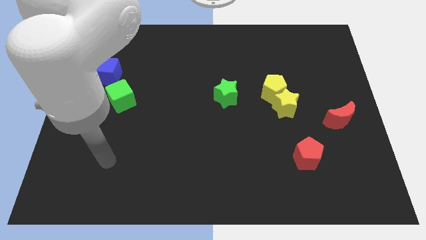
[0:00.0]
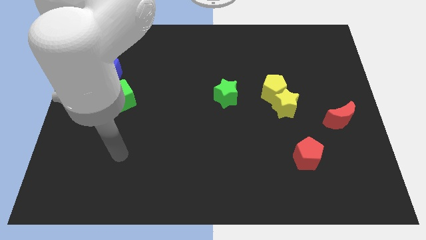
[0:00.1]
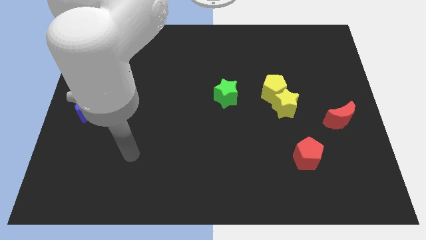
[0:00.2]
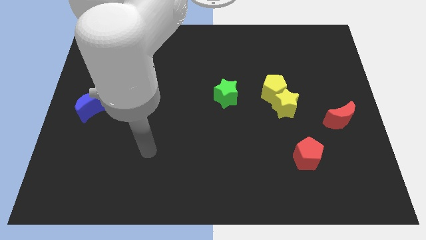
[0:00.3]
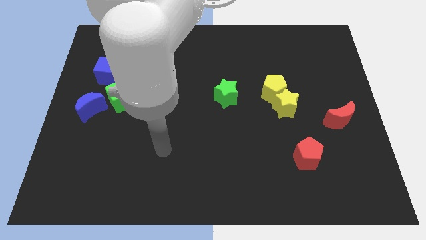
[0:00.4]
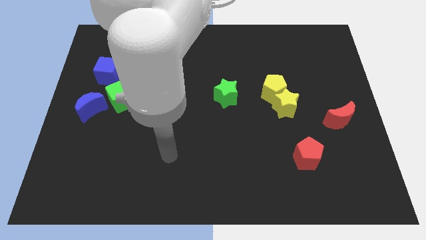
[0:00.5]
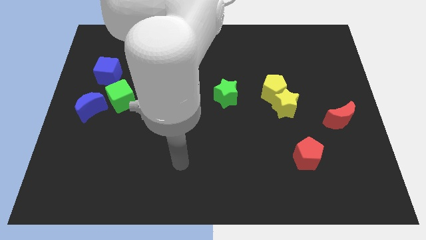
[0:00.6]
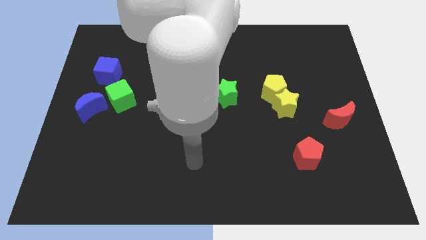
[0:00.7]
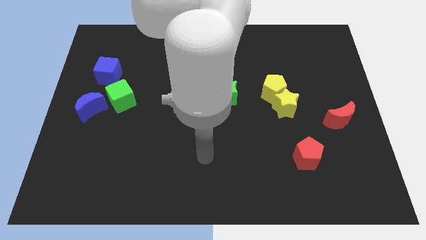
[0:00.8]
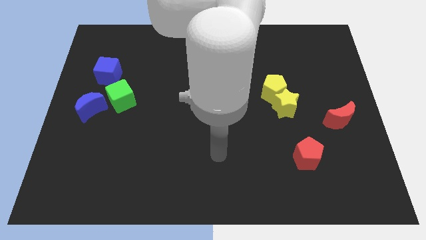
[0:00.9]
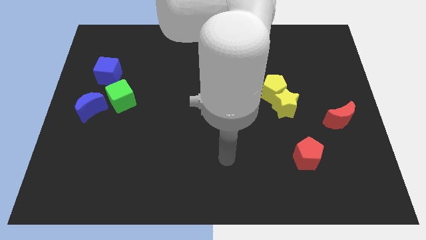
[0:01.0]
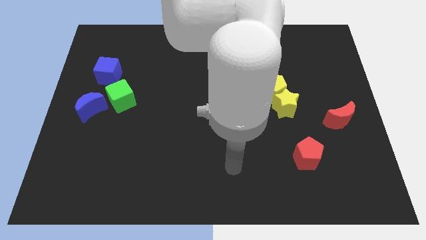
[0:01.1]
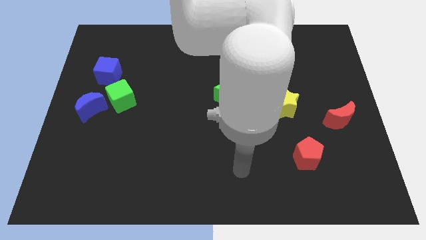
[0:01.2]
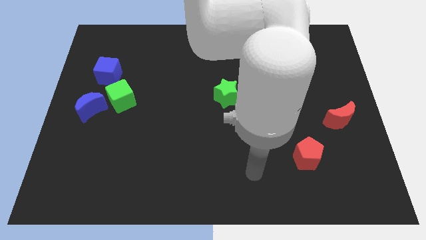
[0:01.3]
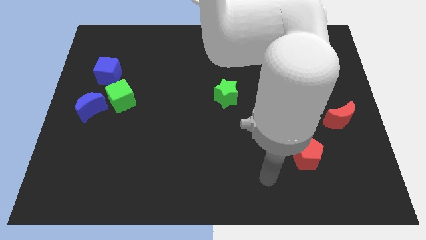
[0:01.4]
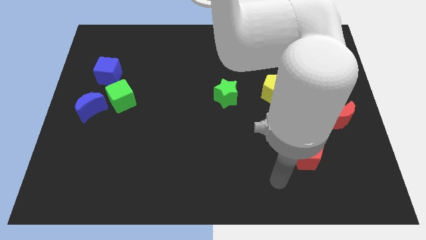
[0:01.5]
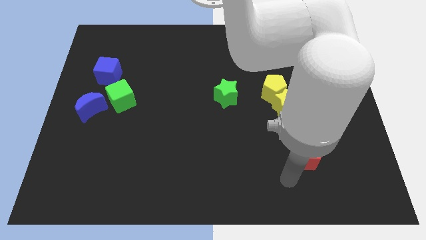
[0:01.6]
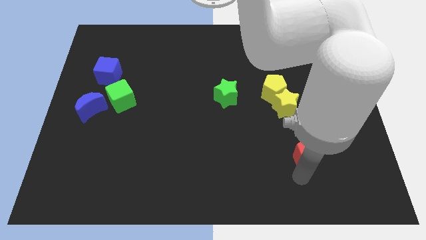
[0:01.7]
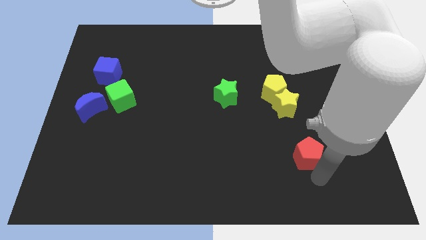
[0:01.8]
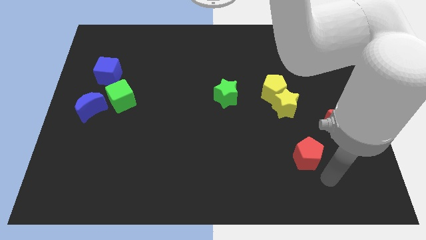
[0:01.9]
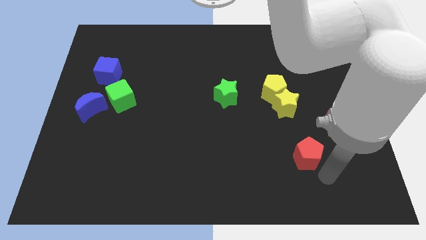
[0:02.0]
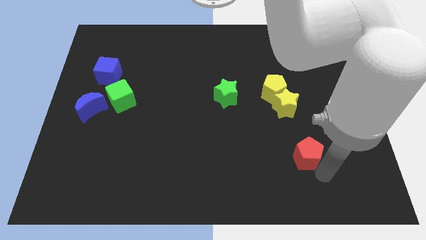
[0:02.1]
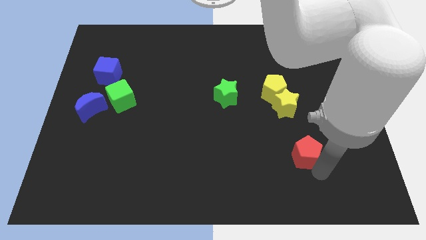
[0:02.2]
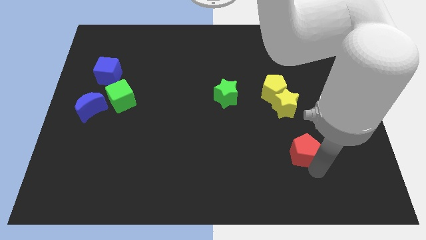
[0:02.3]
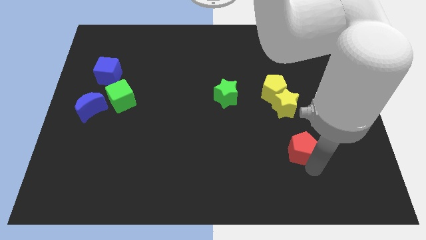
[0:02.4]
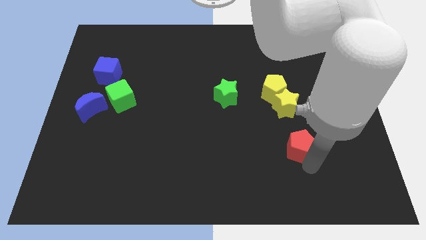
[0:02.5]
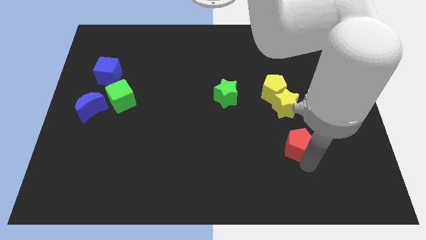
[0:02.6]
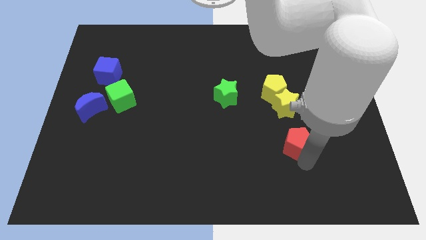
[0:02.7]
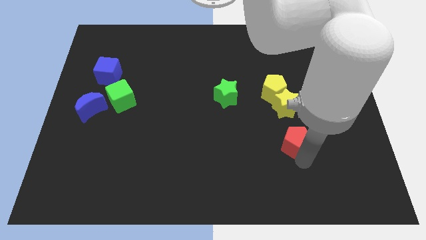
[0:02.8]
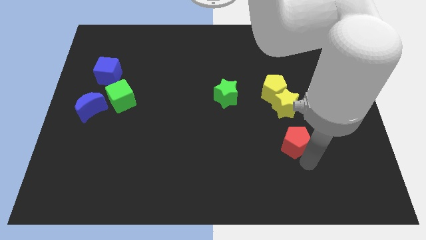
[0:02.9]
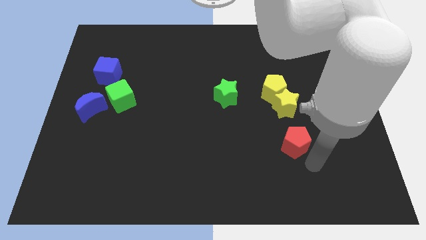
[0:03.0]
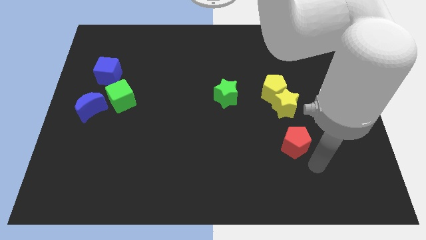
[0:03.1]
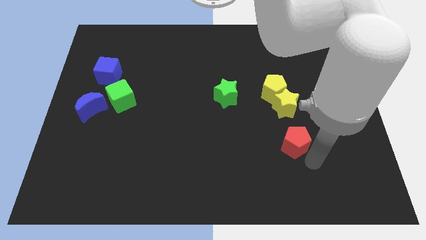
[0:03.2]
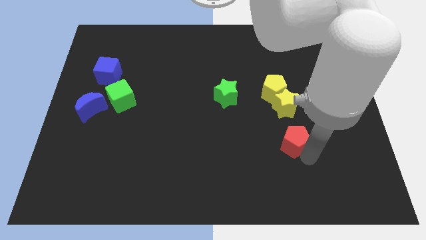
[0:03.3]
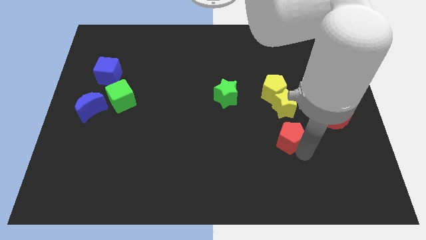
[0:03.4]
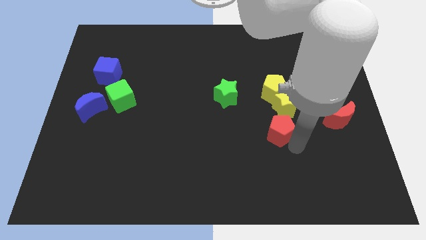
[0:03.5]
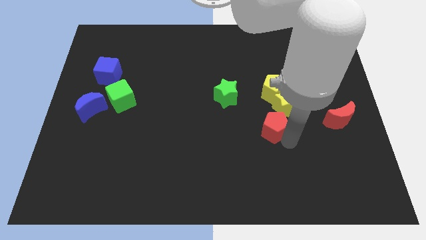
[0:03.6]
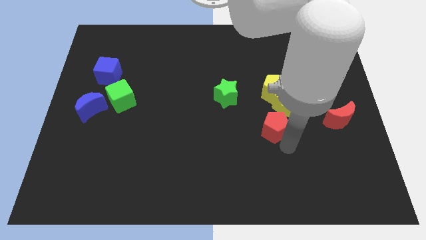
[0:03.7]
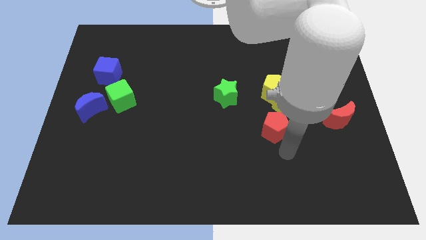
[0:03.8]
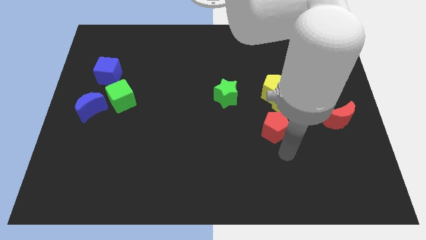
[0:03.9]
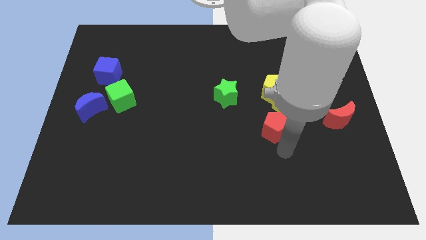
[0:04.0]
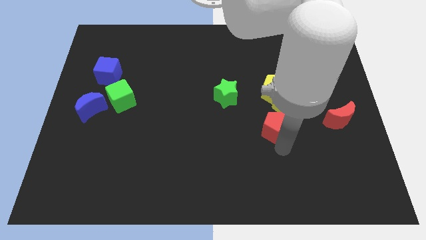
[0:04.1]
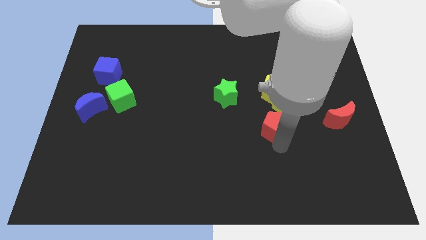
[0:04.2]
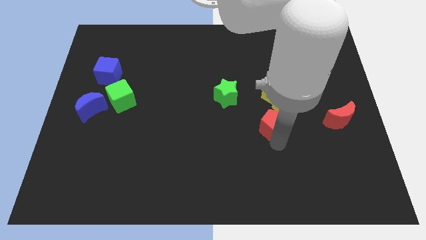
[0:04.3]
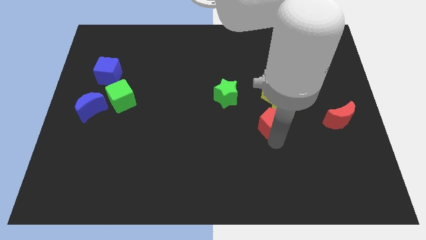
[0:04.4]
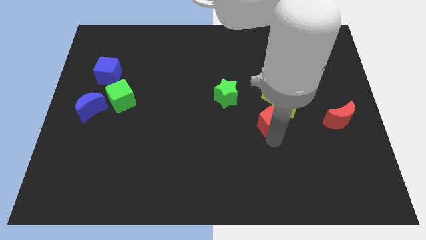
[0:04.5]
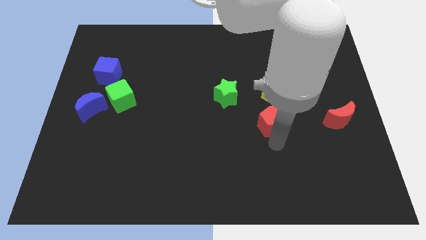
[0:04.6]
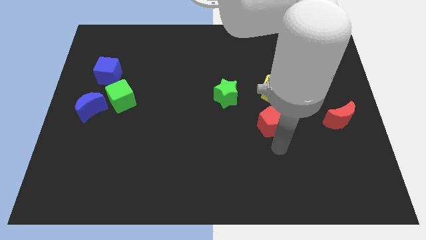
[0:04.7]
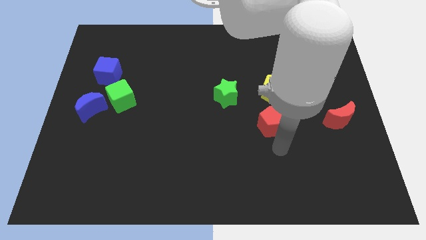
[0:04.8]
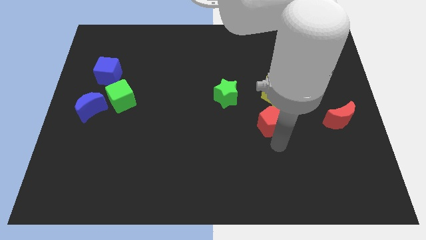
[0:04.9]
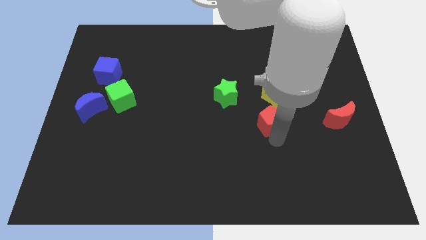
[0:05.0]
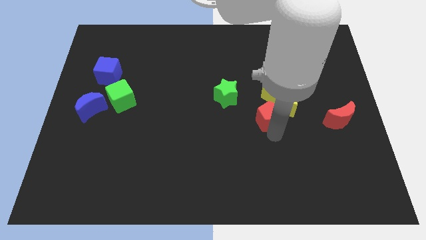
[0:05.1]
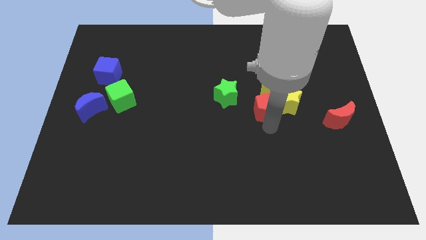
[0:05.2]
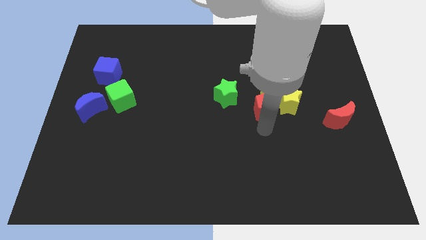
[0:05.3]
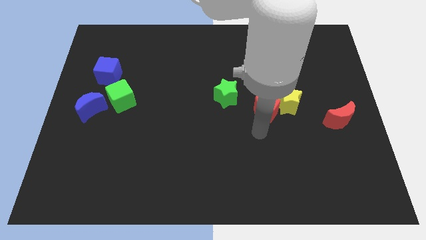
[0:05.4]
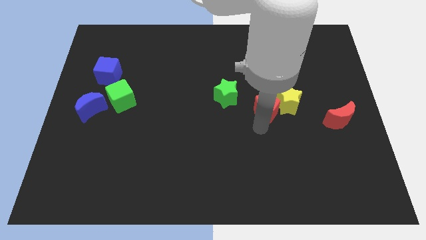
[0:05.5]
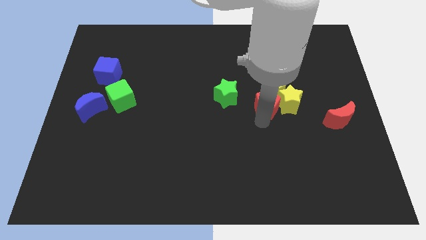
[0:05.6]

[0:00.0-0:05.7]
move the red pentagon close to the yellow pentagon

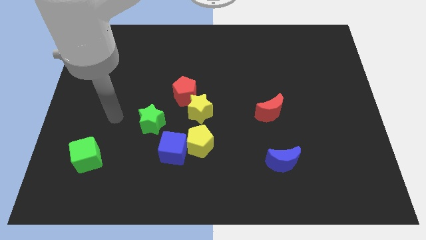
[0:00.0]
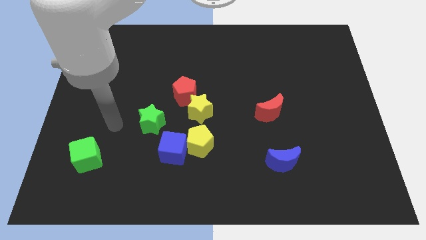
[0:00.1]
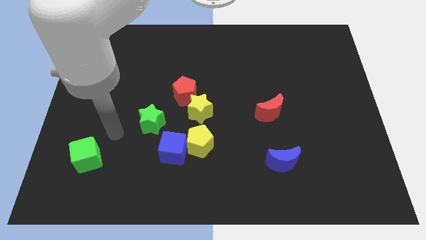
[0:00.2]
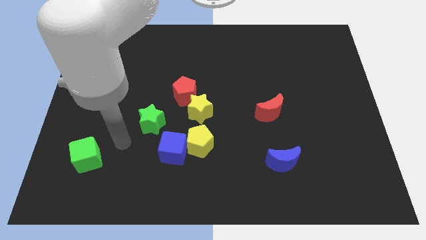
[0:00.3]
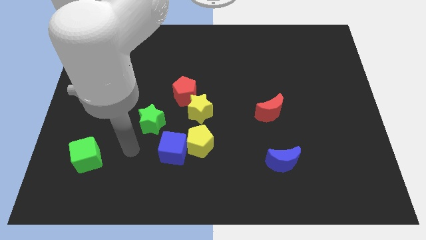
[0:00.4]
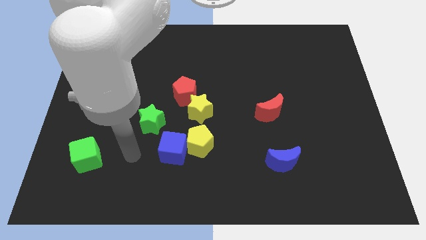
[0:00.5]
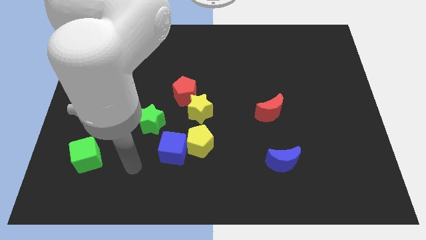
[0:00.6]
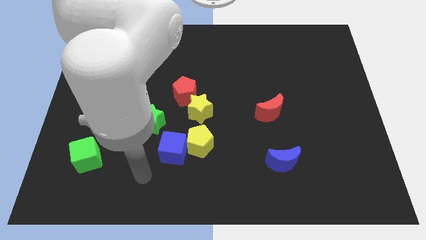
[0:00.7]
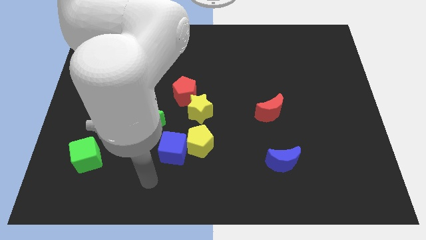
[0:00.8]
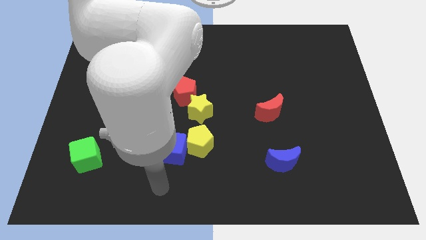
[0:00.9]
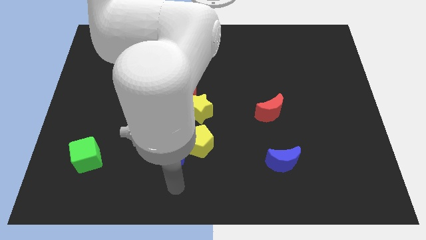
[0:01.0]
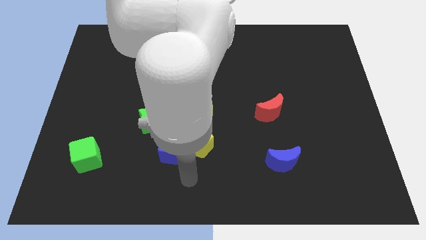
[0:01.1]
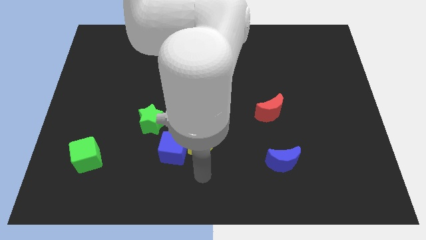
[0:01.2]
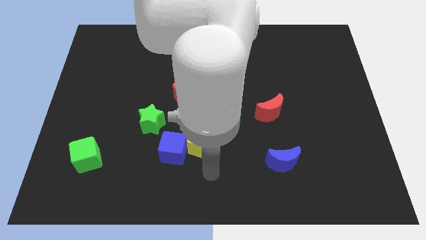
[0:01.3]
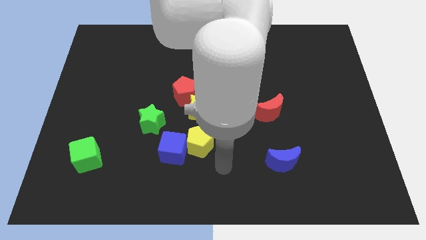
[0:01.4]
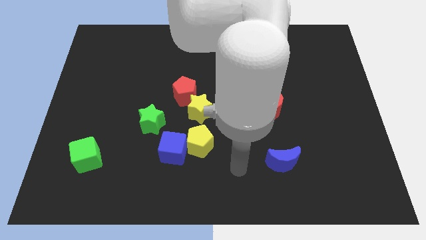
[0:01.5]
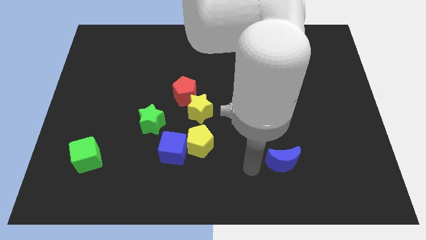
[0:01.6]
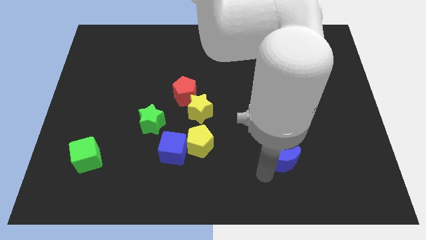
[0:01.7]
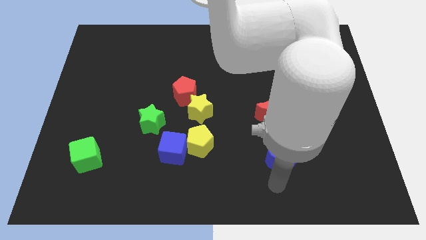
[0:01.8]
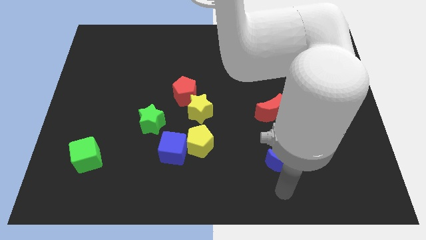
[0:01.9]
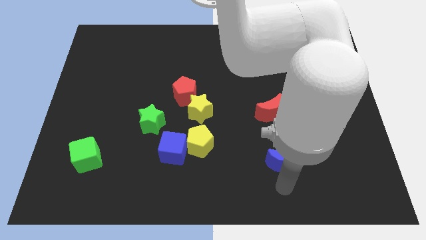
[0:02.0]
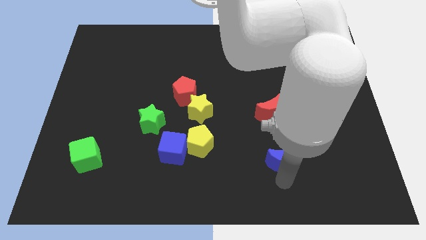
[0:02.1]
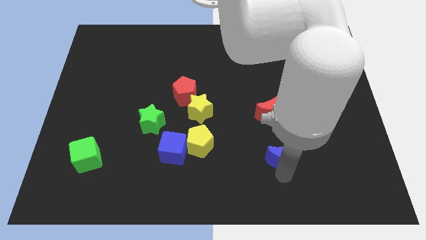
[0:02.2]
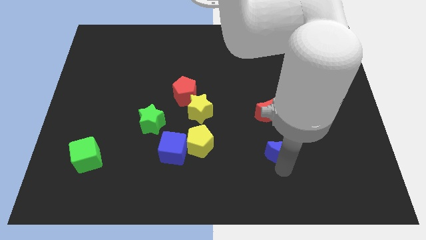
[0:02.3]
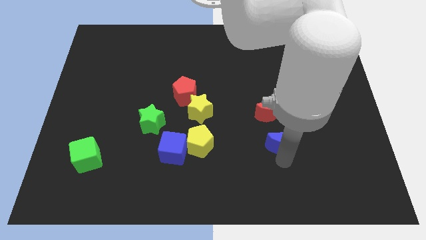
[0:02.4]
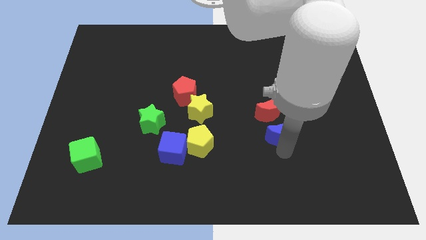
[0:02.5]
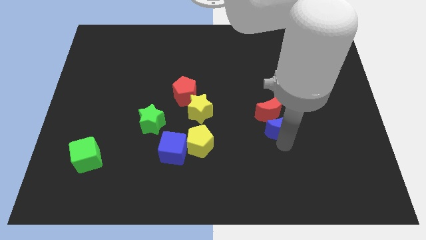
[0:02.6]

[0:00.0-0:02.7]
slide the blue moon next to the red moon
